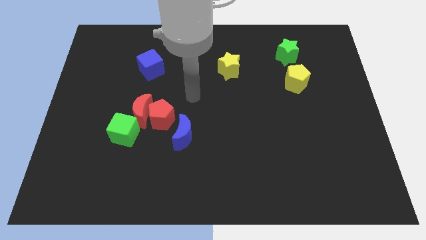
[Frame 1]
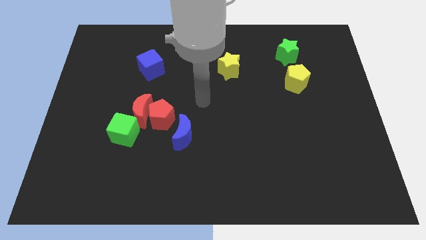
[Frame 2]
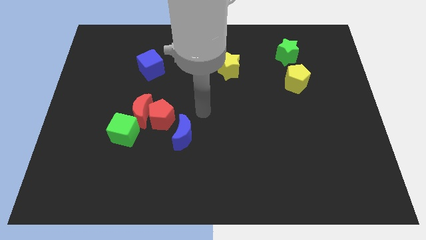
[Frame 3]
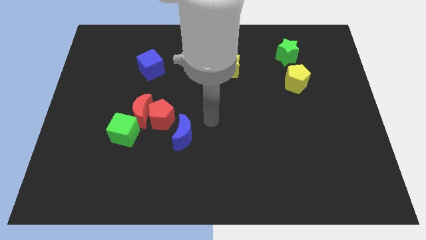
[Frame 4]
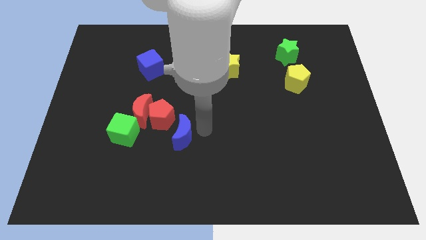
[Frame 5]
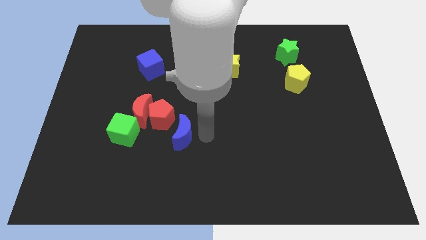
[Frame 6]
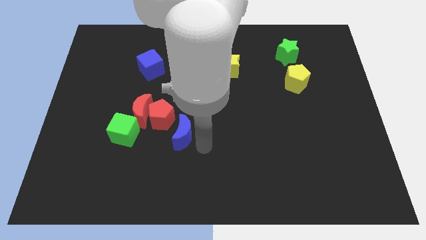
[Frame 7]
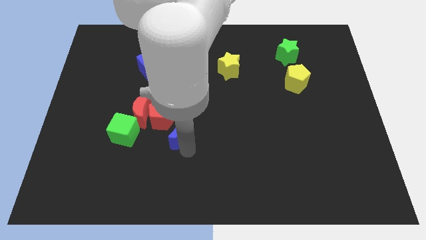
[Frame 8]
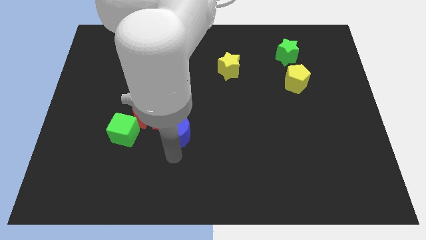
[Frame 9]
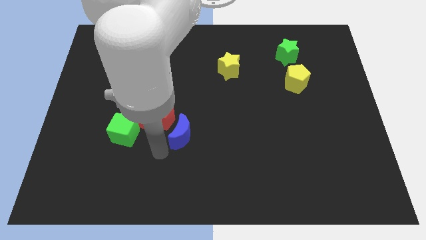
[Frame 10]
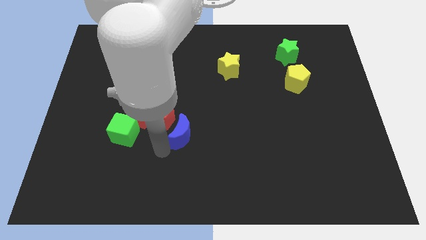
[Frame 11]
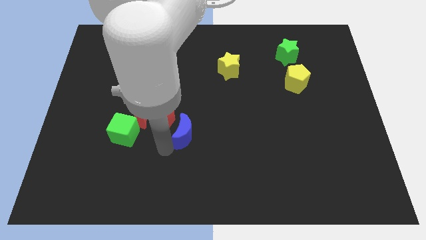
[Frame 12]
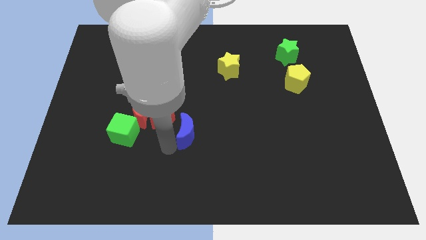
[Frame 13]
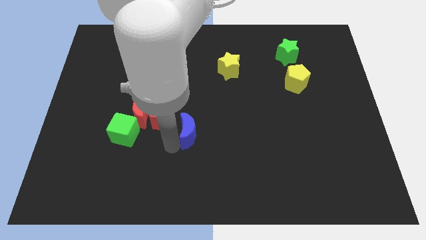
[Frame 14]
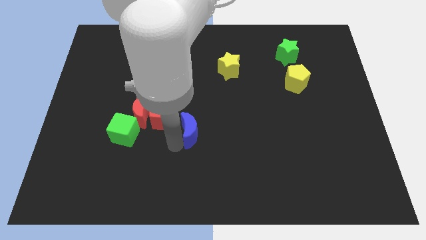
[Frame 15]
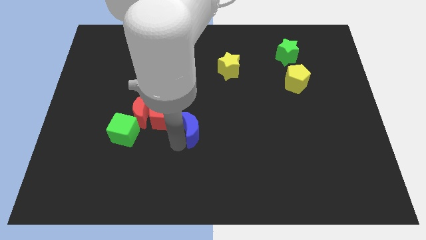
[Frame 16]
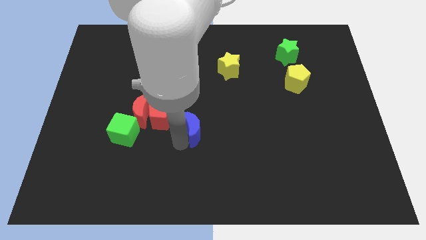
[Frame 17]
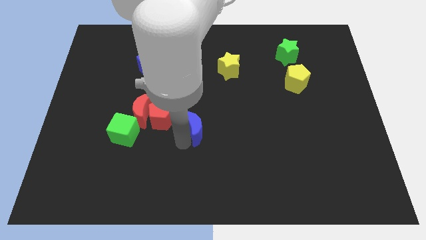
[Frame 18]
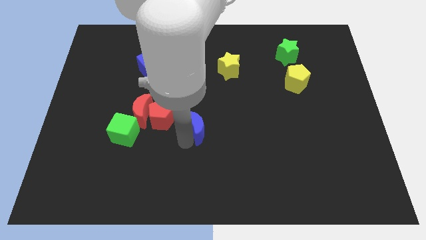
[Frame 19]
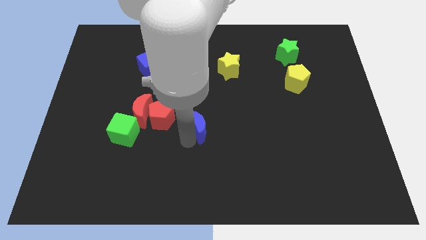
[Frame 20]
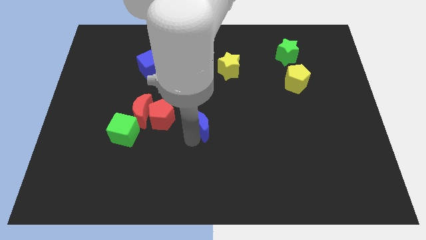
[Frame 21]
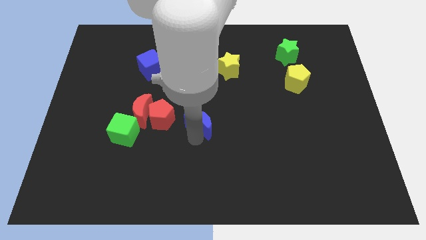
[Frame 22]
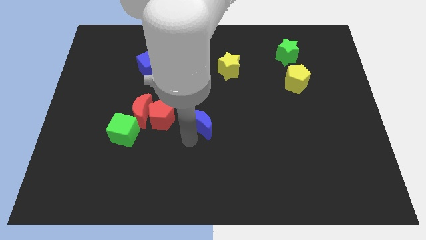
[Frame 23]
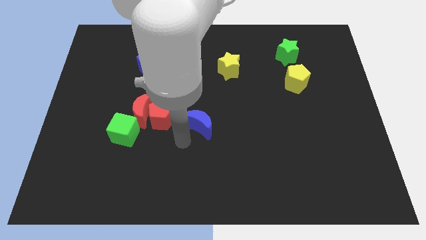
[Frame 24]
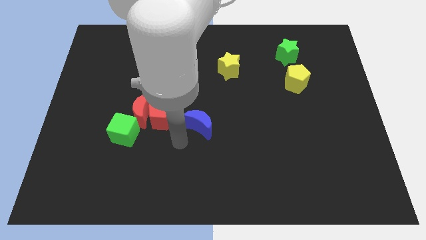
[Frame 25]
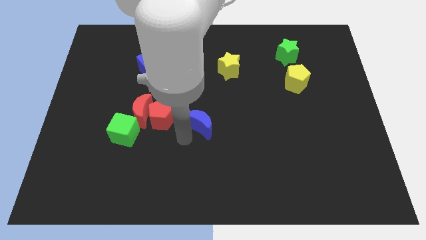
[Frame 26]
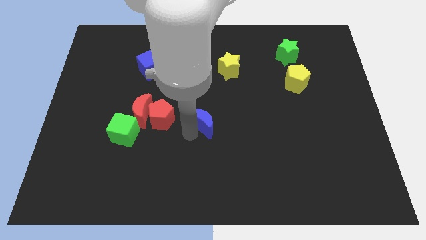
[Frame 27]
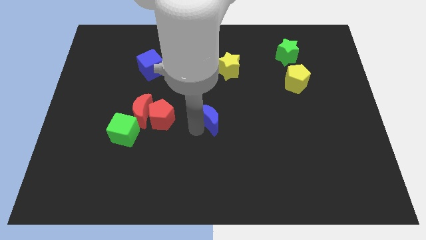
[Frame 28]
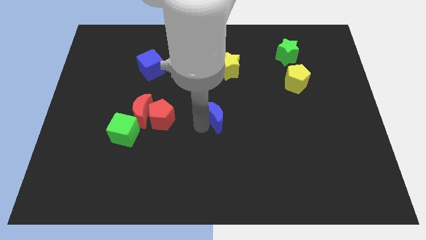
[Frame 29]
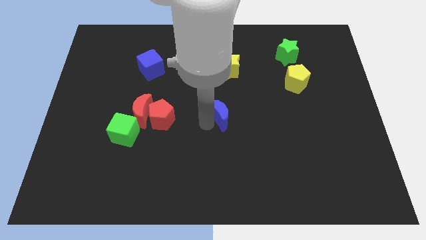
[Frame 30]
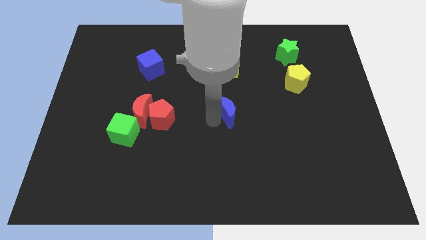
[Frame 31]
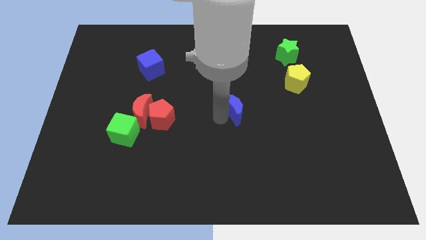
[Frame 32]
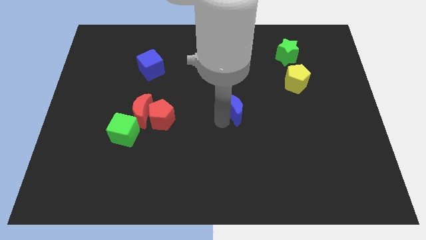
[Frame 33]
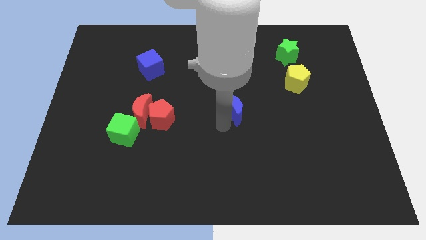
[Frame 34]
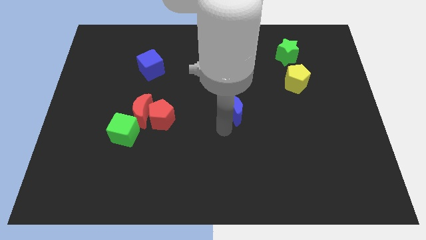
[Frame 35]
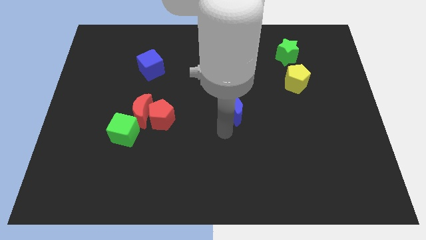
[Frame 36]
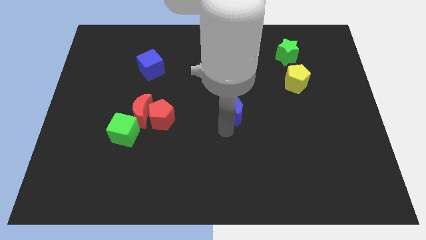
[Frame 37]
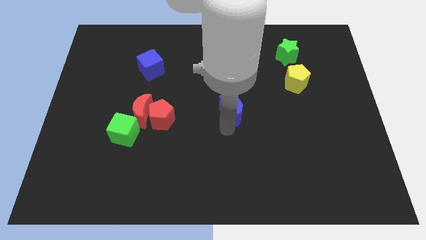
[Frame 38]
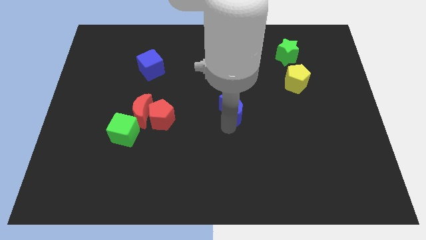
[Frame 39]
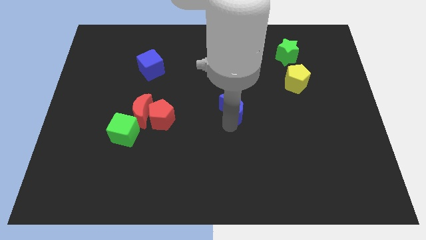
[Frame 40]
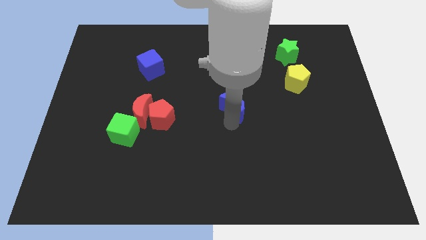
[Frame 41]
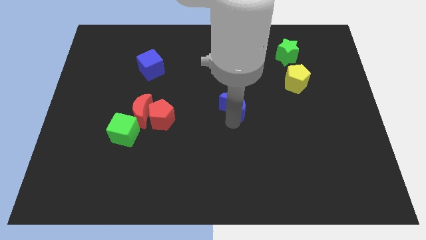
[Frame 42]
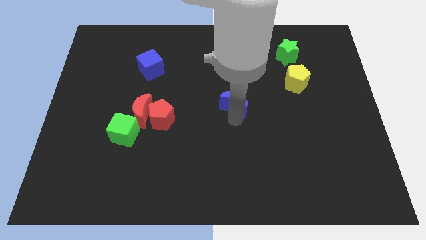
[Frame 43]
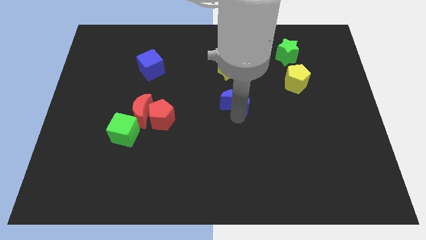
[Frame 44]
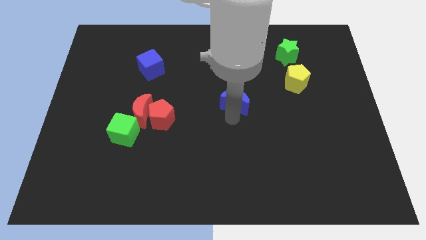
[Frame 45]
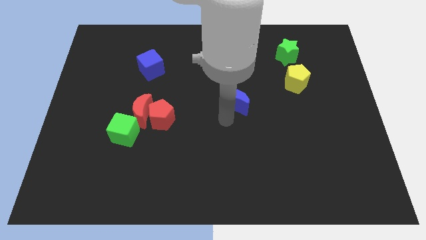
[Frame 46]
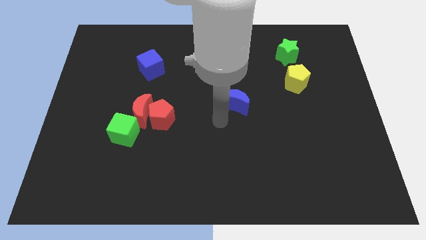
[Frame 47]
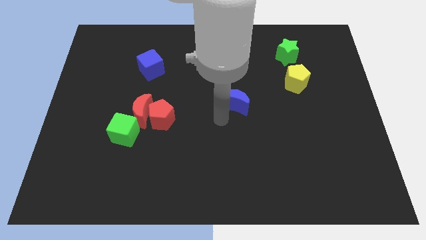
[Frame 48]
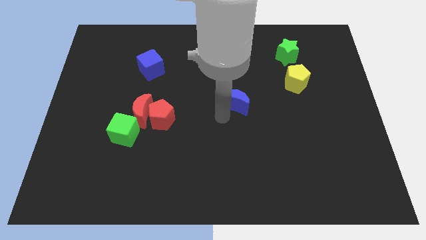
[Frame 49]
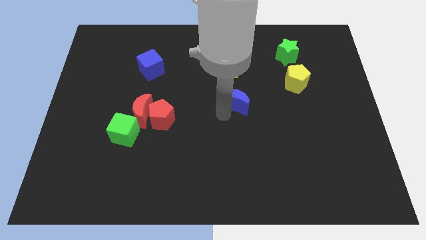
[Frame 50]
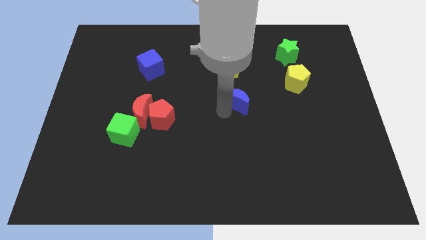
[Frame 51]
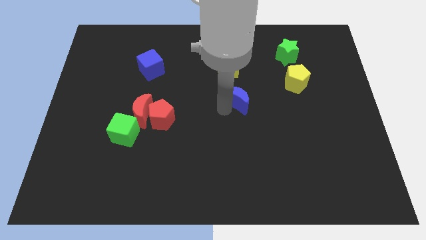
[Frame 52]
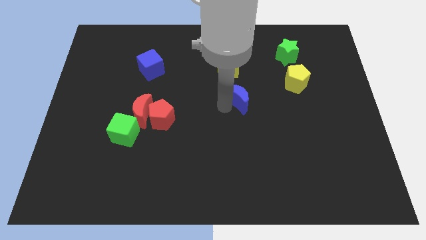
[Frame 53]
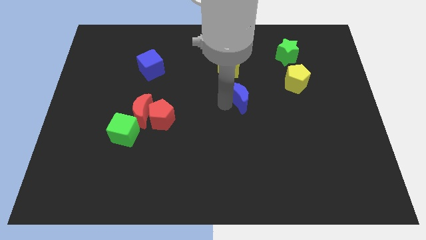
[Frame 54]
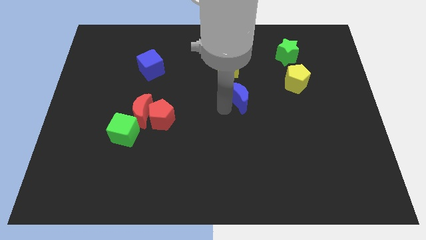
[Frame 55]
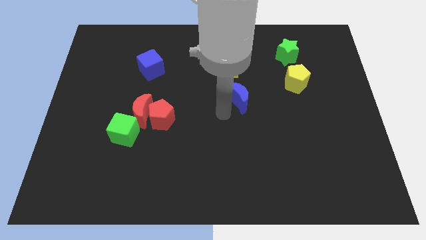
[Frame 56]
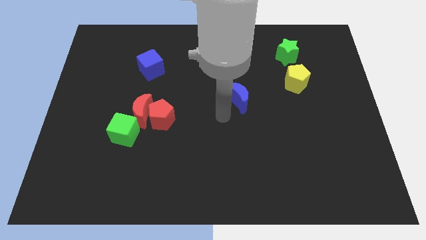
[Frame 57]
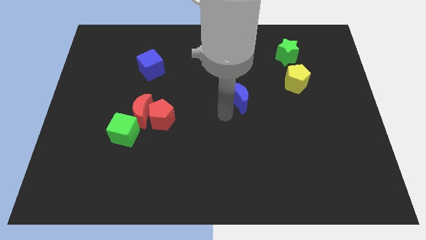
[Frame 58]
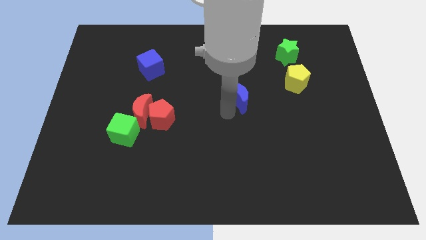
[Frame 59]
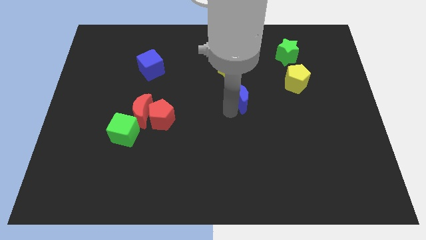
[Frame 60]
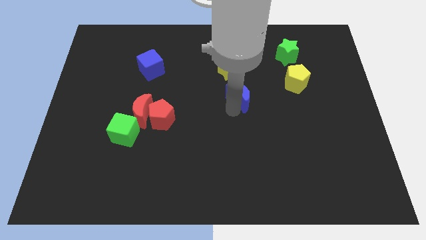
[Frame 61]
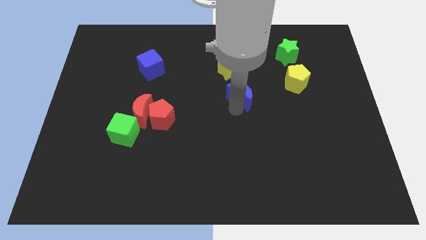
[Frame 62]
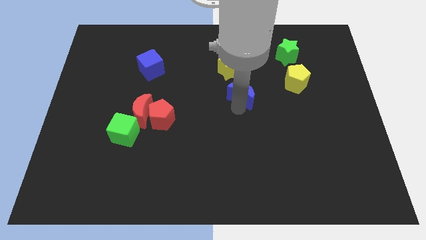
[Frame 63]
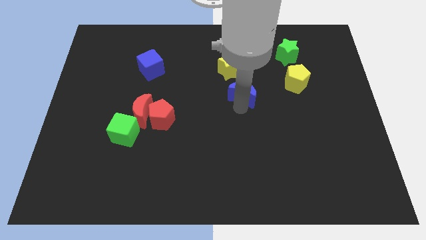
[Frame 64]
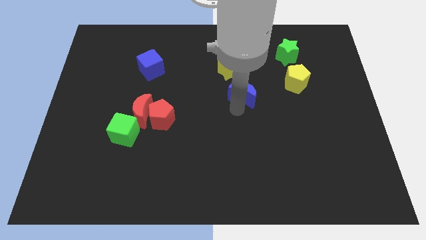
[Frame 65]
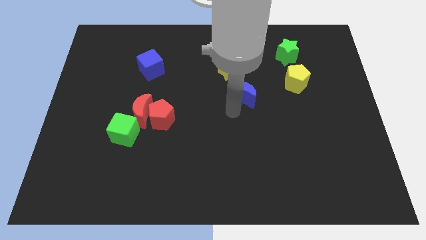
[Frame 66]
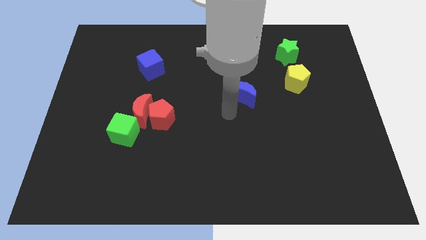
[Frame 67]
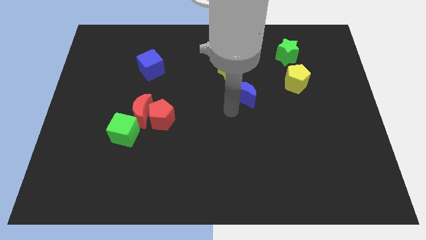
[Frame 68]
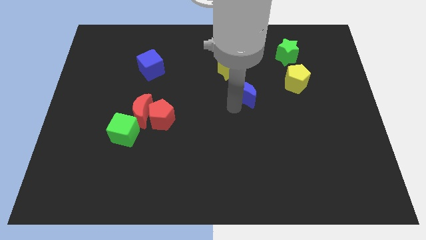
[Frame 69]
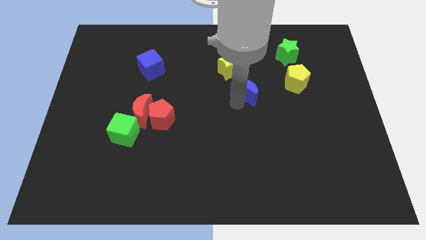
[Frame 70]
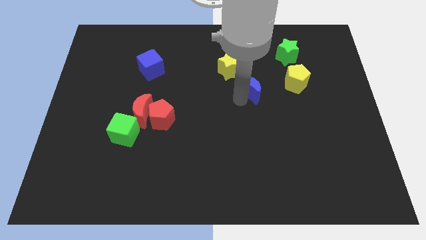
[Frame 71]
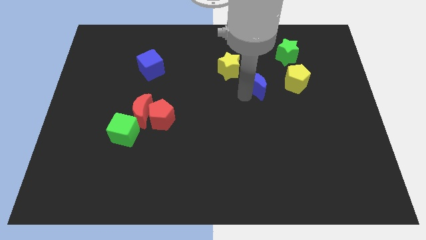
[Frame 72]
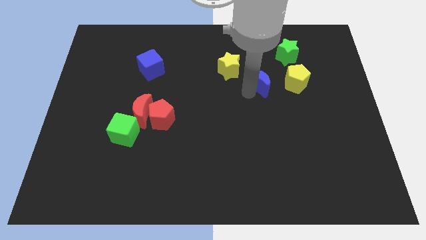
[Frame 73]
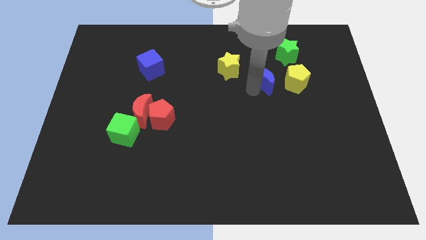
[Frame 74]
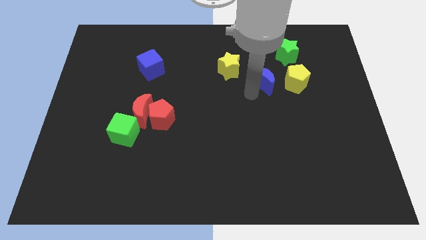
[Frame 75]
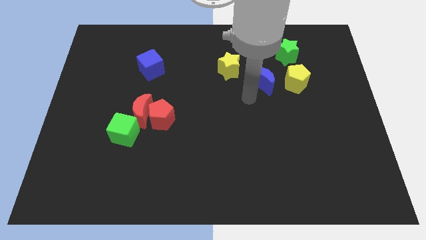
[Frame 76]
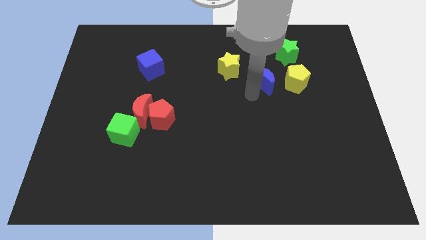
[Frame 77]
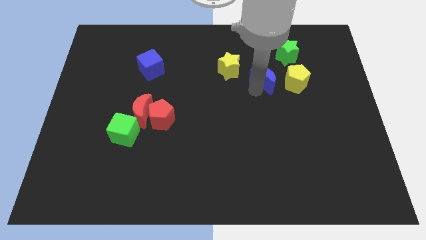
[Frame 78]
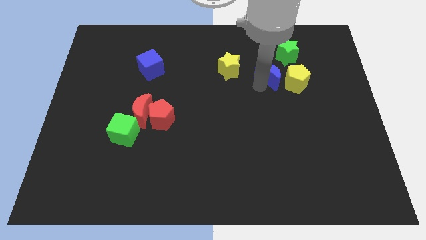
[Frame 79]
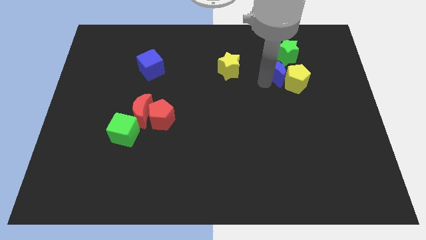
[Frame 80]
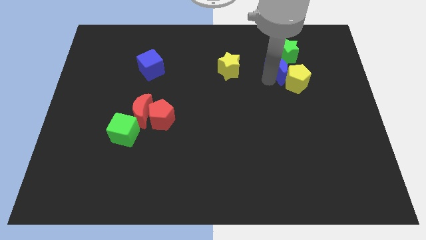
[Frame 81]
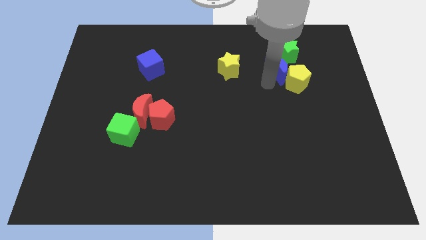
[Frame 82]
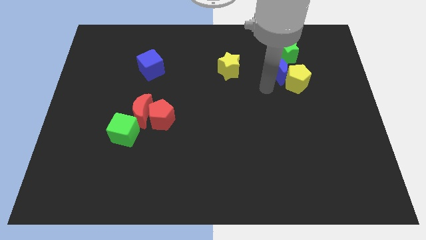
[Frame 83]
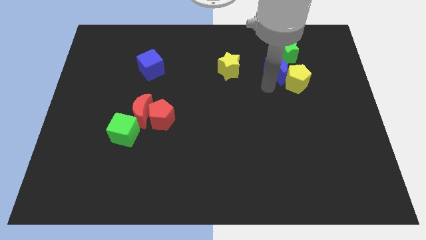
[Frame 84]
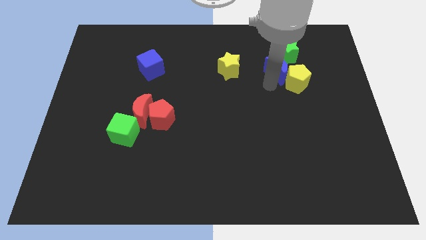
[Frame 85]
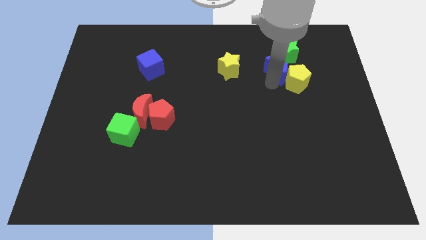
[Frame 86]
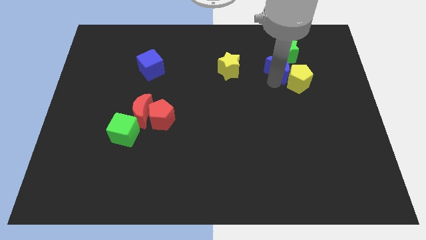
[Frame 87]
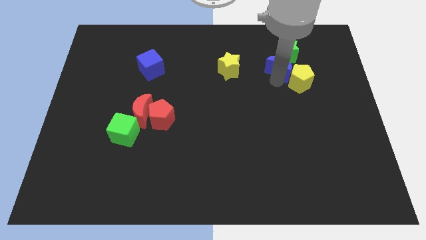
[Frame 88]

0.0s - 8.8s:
push the blue moon to the green star
